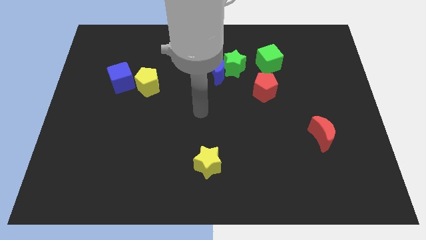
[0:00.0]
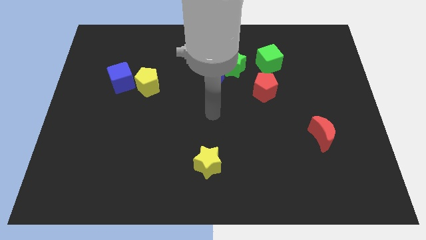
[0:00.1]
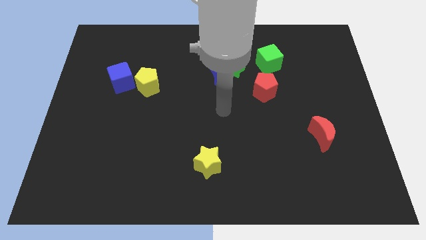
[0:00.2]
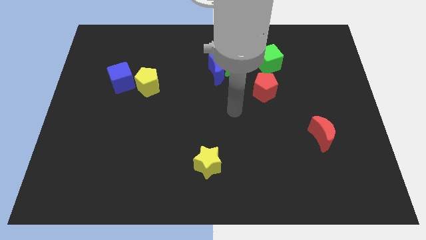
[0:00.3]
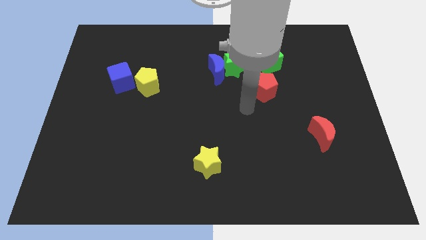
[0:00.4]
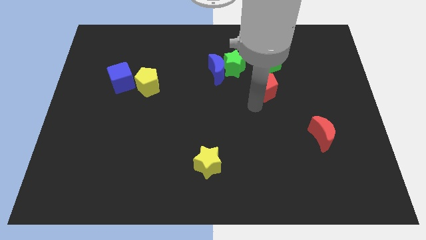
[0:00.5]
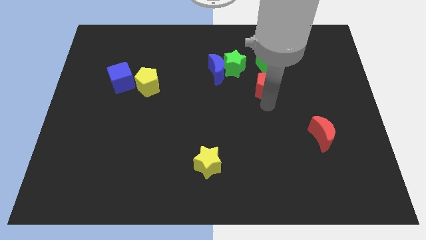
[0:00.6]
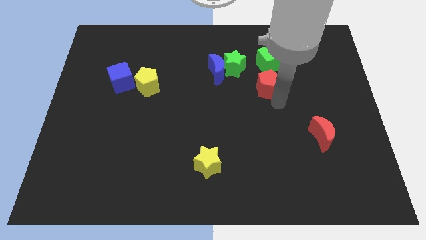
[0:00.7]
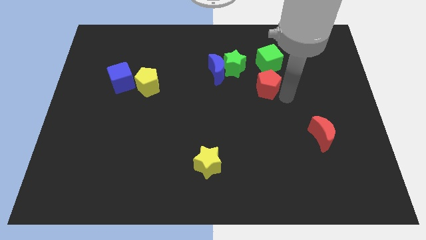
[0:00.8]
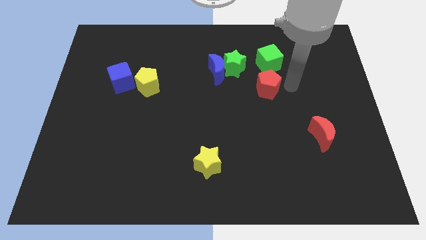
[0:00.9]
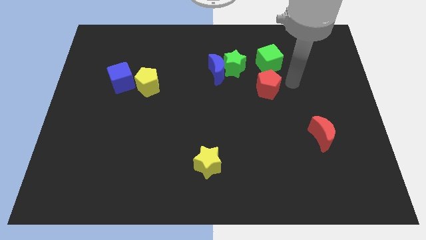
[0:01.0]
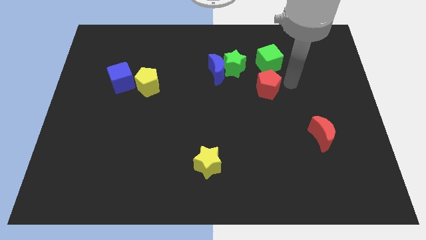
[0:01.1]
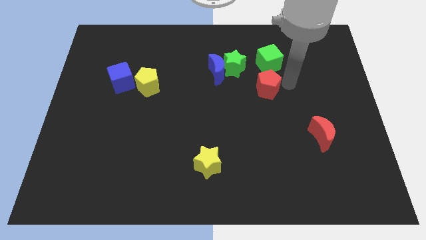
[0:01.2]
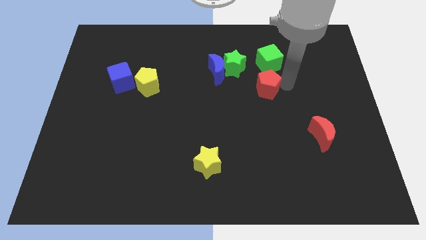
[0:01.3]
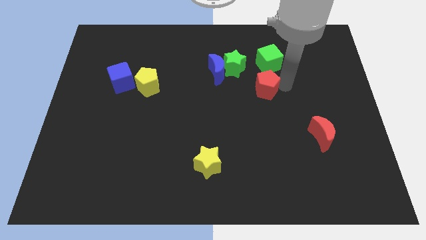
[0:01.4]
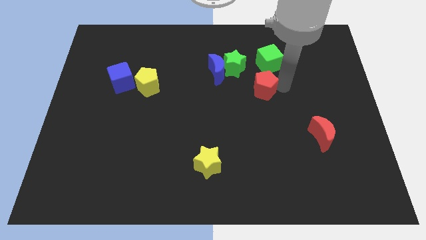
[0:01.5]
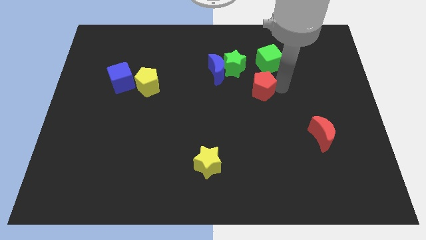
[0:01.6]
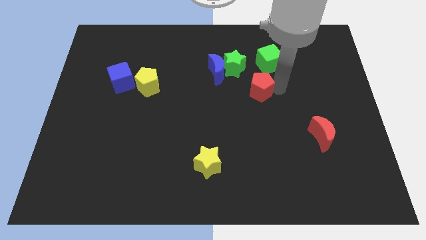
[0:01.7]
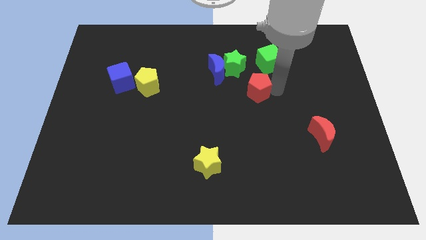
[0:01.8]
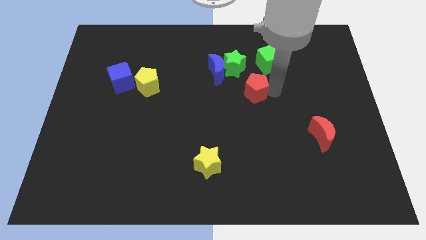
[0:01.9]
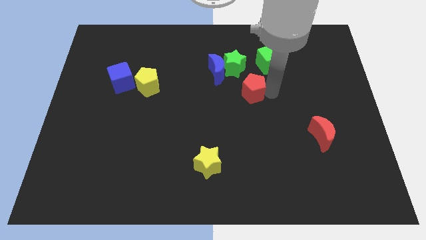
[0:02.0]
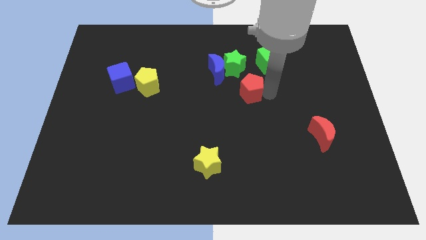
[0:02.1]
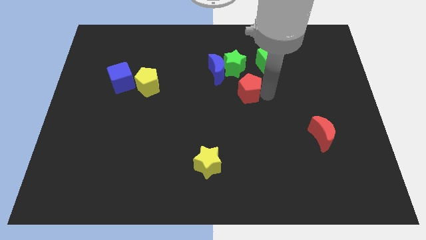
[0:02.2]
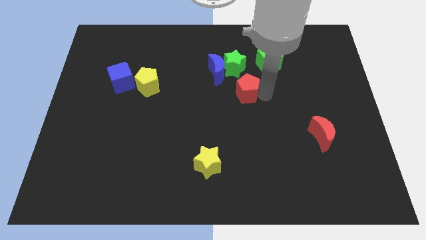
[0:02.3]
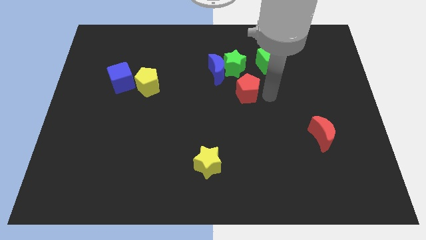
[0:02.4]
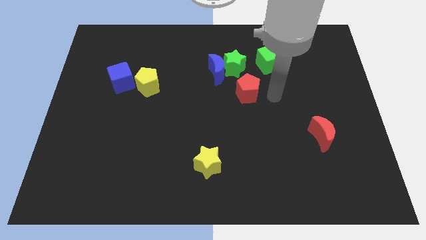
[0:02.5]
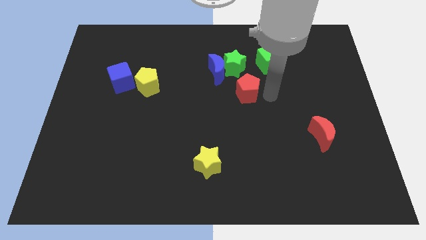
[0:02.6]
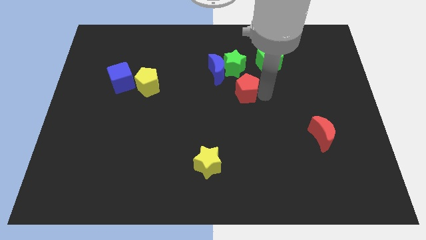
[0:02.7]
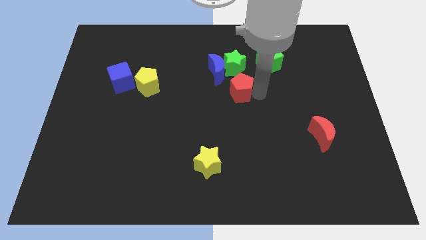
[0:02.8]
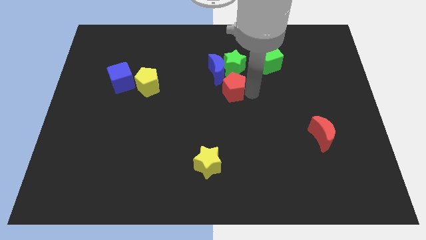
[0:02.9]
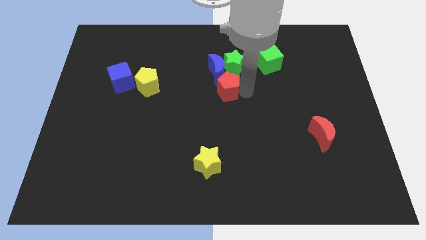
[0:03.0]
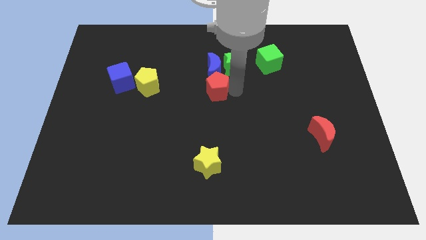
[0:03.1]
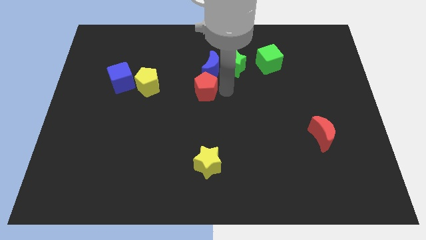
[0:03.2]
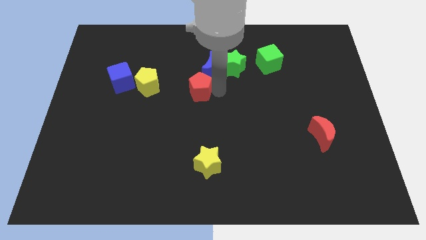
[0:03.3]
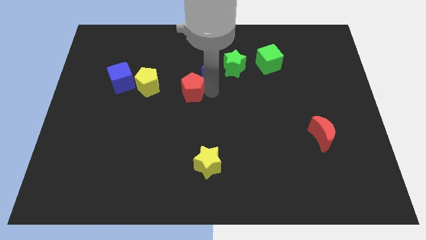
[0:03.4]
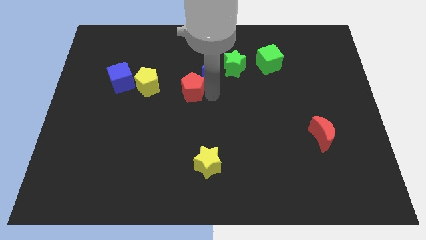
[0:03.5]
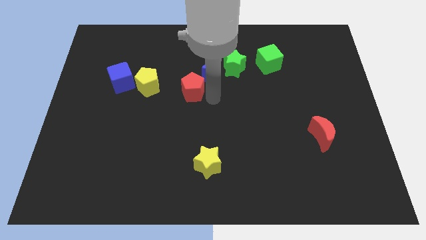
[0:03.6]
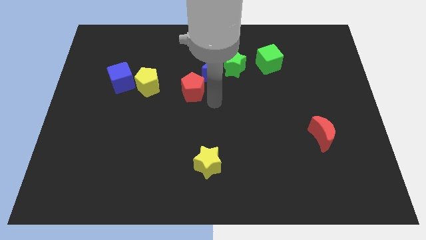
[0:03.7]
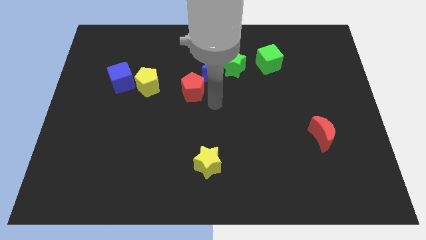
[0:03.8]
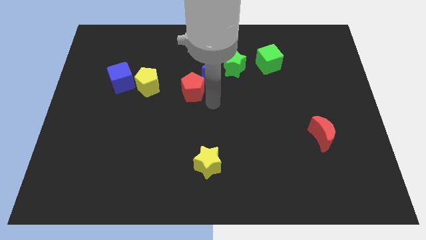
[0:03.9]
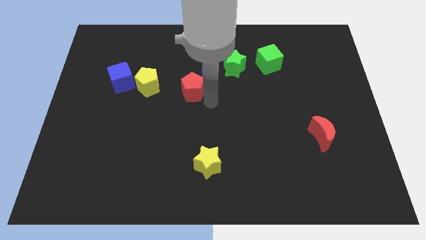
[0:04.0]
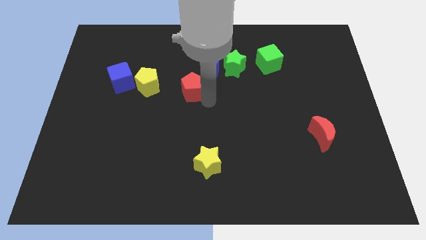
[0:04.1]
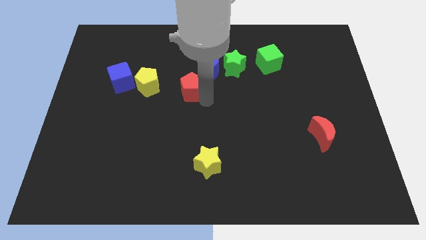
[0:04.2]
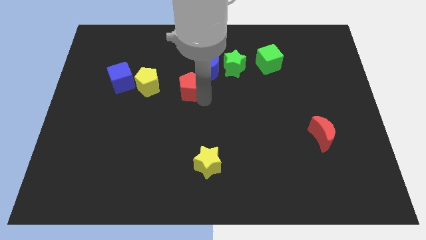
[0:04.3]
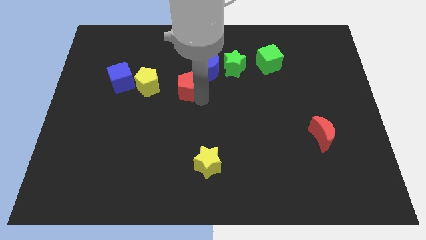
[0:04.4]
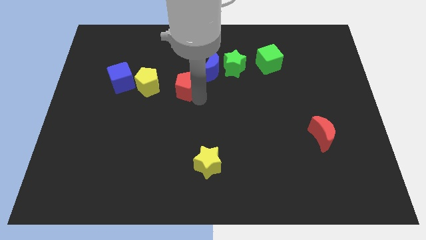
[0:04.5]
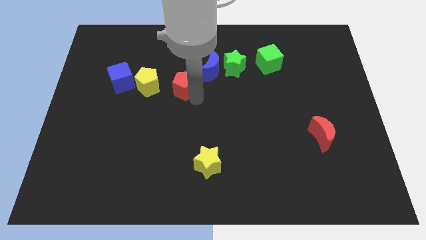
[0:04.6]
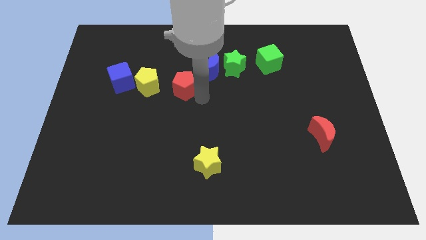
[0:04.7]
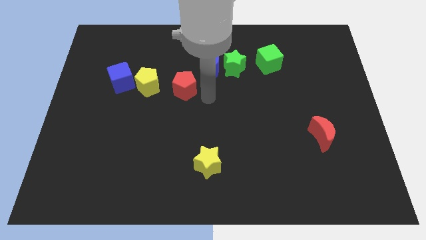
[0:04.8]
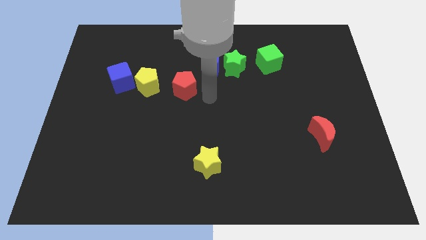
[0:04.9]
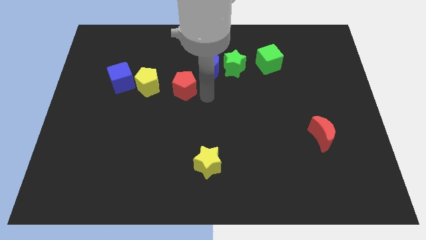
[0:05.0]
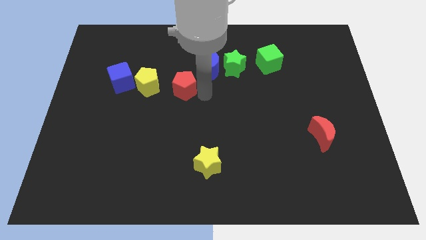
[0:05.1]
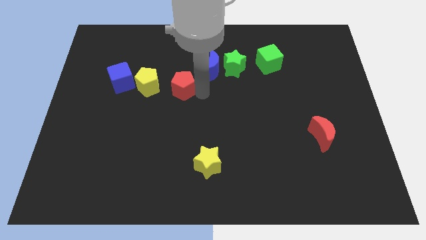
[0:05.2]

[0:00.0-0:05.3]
move the red pentagon to the right side of the blue cube

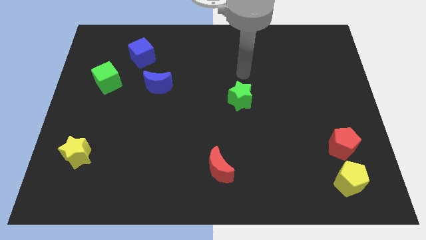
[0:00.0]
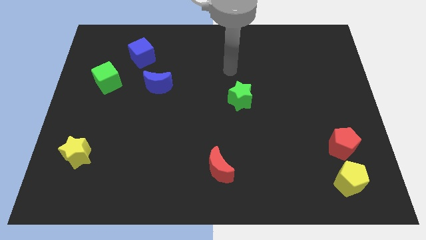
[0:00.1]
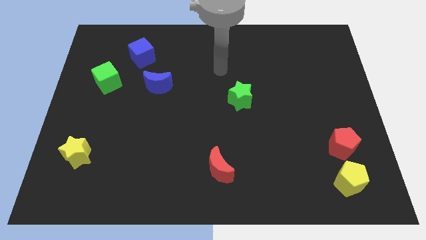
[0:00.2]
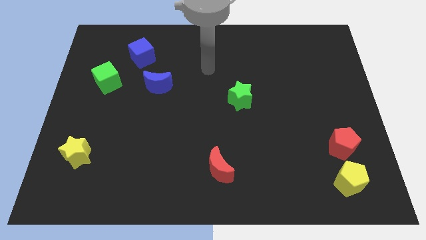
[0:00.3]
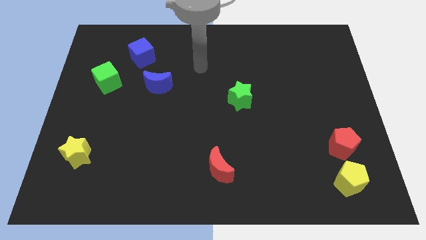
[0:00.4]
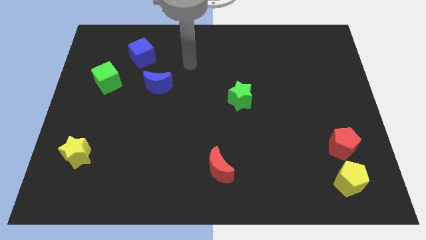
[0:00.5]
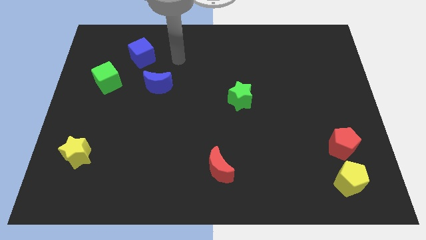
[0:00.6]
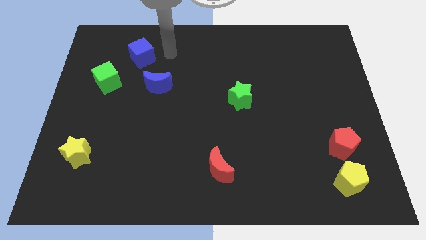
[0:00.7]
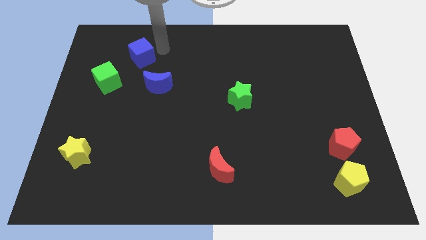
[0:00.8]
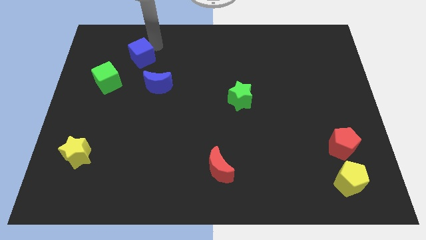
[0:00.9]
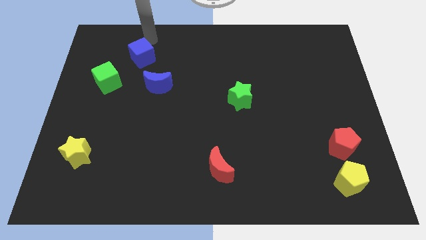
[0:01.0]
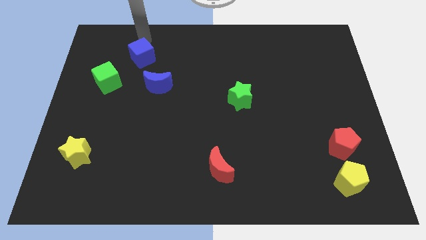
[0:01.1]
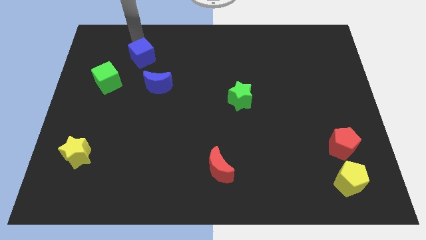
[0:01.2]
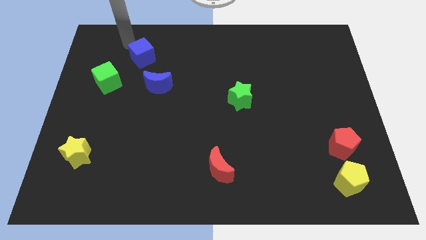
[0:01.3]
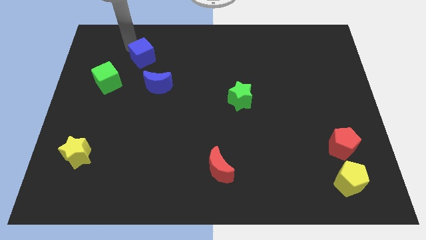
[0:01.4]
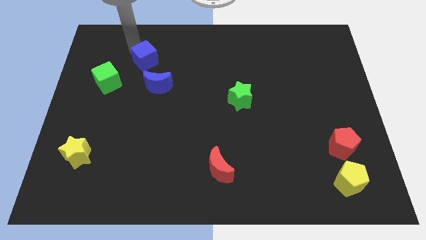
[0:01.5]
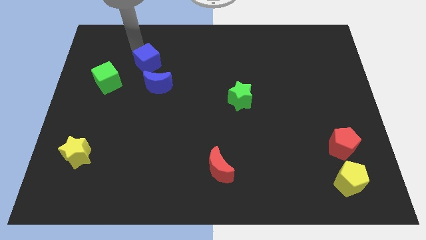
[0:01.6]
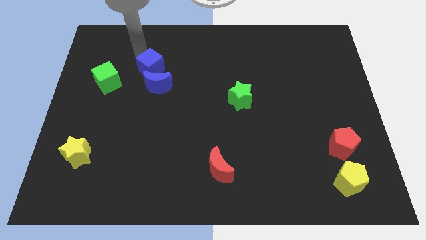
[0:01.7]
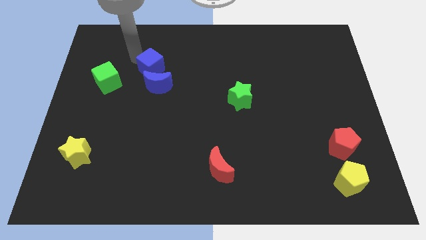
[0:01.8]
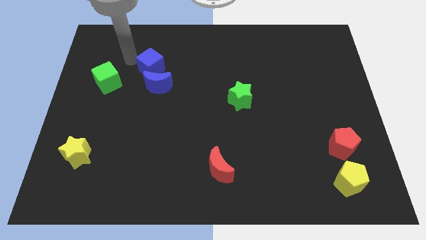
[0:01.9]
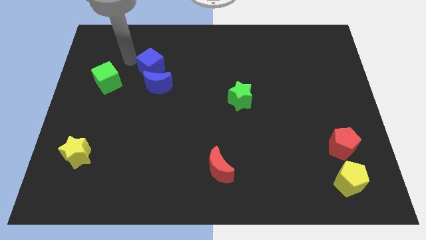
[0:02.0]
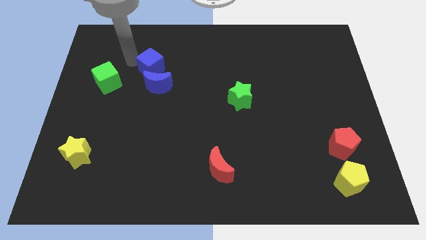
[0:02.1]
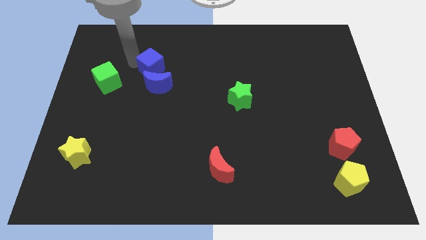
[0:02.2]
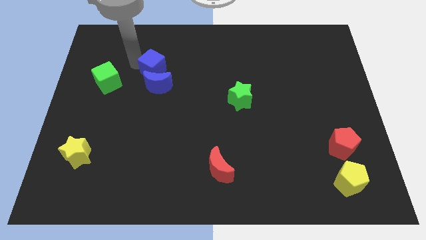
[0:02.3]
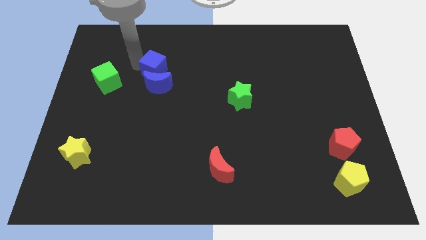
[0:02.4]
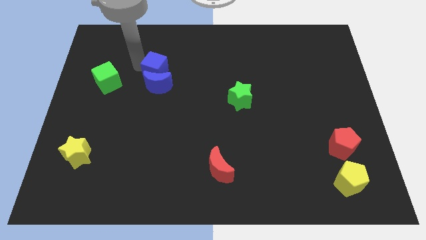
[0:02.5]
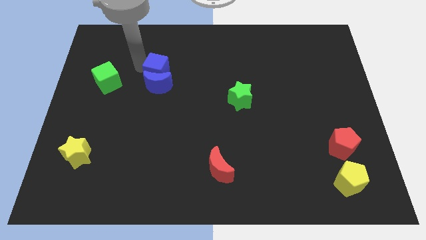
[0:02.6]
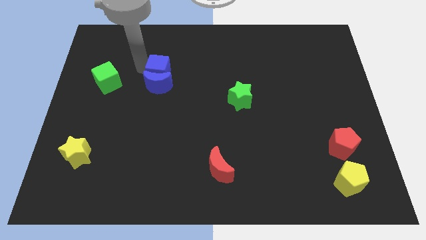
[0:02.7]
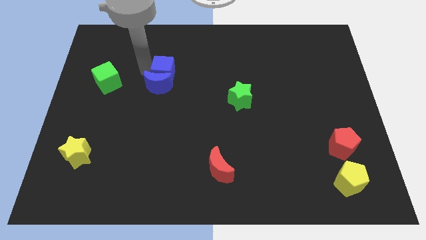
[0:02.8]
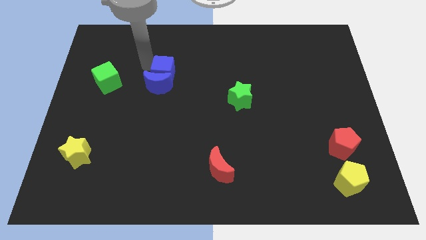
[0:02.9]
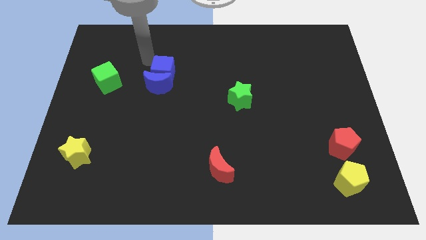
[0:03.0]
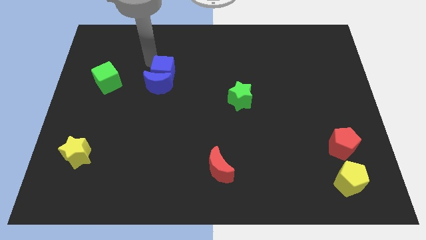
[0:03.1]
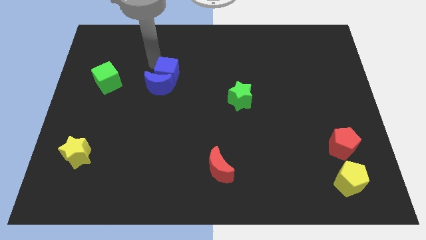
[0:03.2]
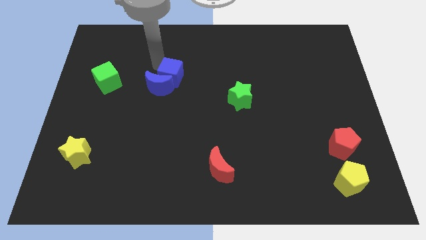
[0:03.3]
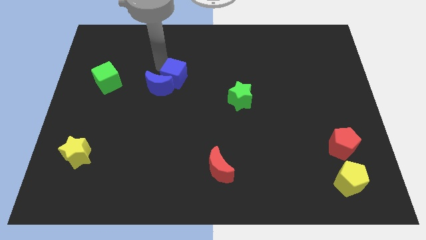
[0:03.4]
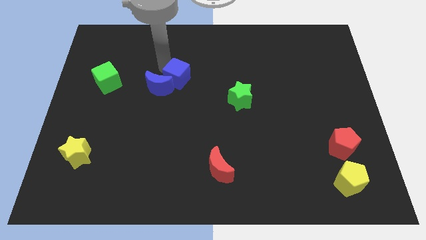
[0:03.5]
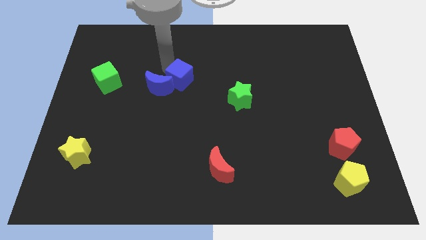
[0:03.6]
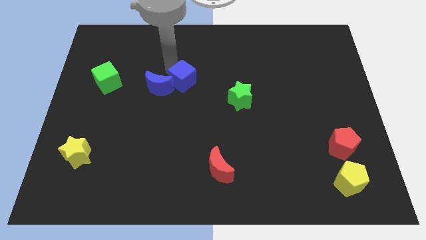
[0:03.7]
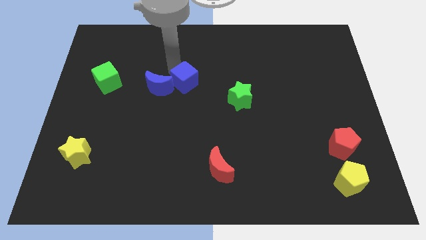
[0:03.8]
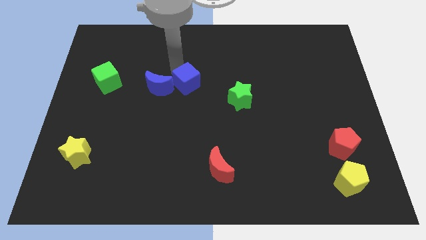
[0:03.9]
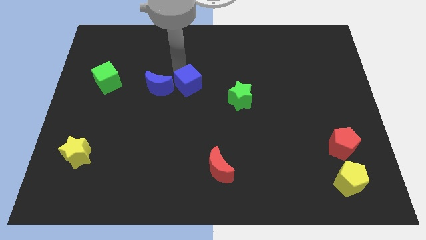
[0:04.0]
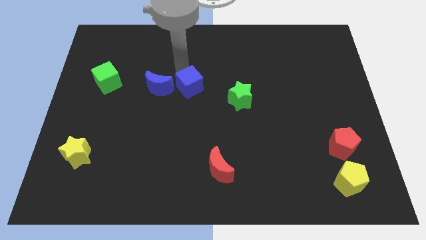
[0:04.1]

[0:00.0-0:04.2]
move the blue cube to the left of the green star
